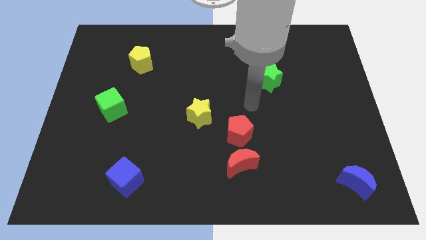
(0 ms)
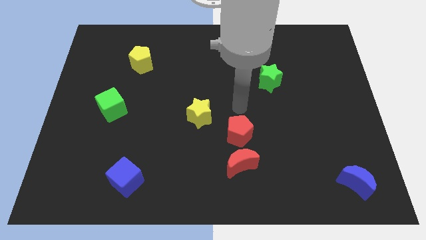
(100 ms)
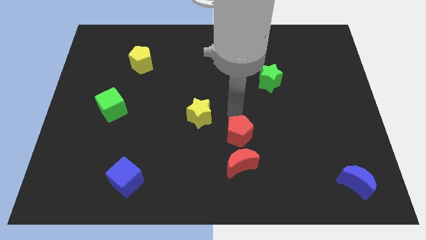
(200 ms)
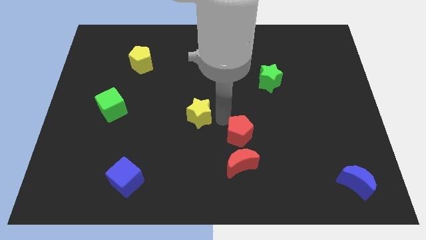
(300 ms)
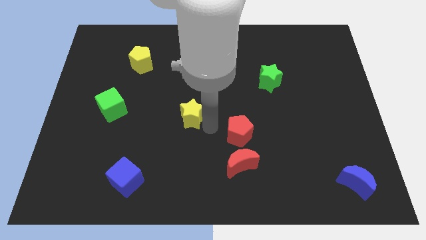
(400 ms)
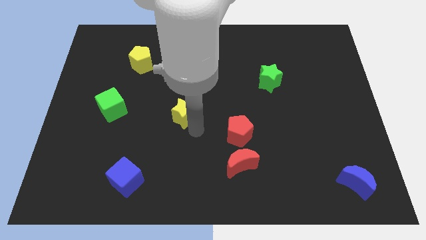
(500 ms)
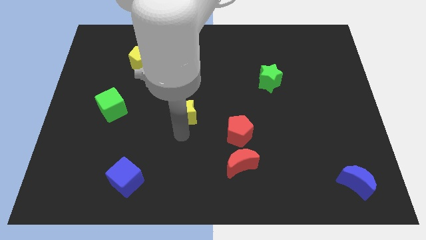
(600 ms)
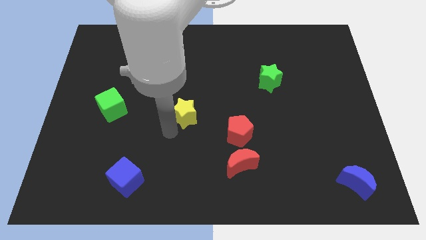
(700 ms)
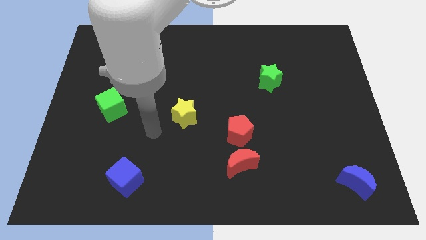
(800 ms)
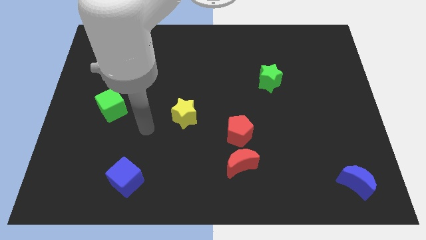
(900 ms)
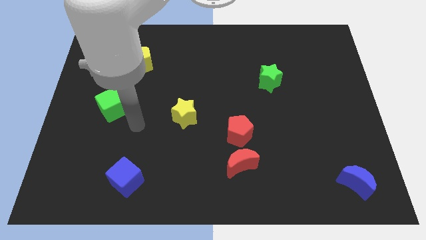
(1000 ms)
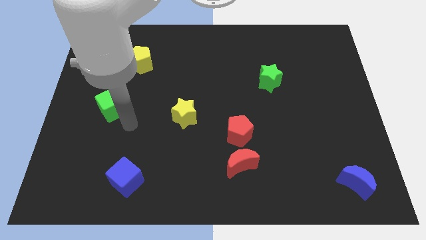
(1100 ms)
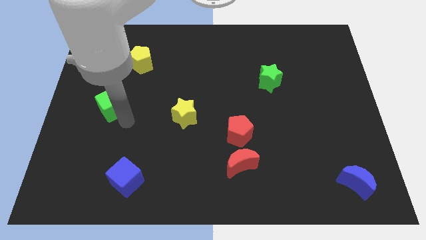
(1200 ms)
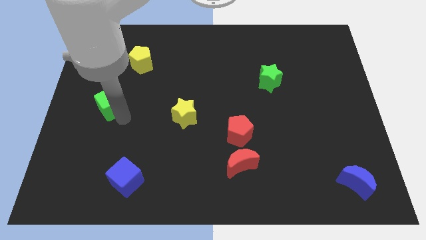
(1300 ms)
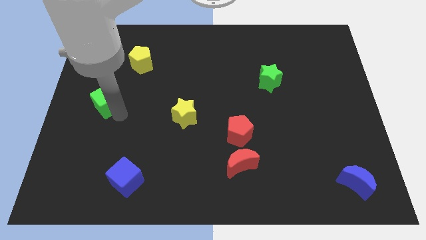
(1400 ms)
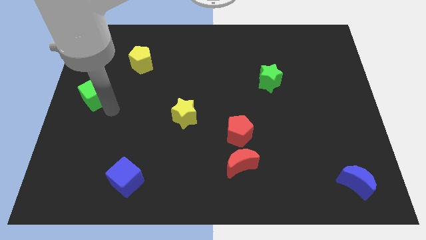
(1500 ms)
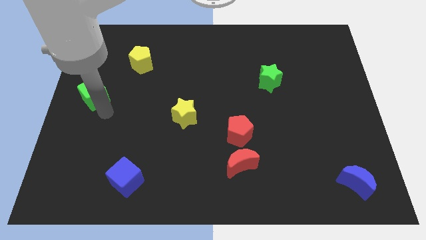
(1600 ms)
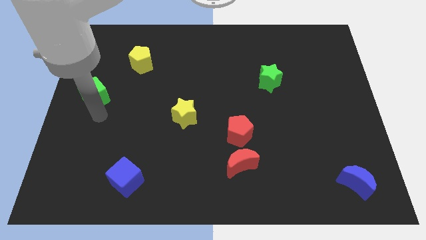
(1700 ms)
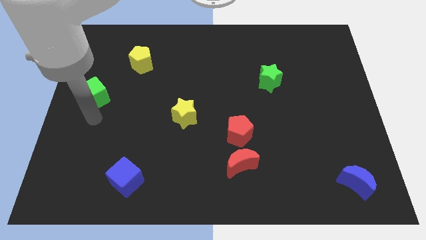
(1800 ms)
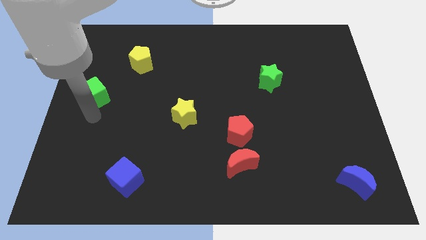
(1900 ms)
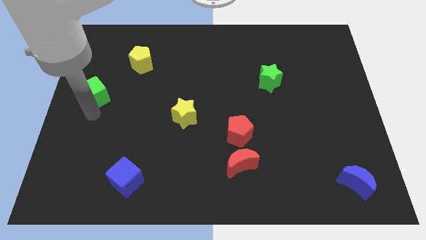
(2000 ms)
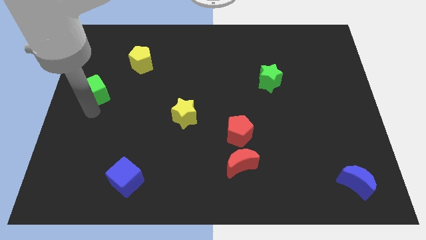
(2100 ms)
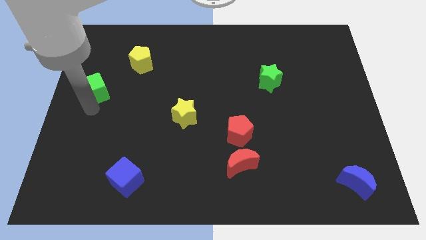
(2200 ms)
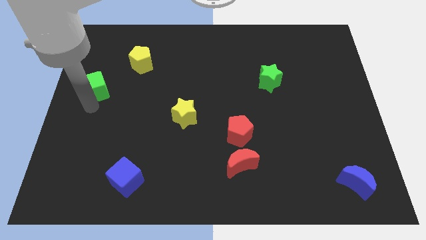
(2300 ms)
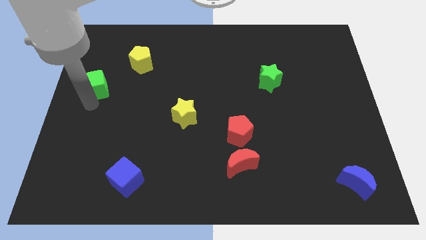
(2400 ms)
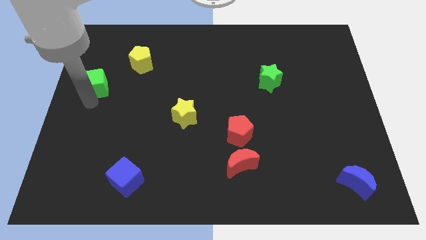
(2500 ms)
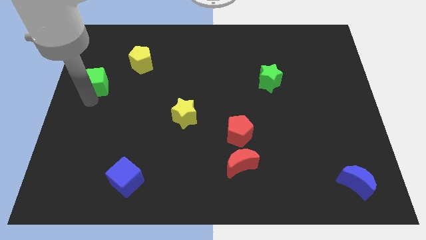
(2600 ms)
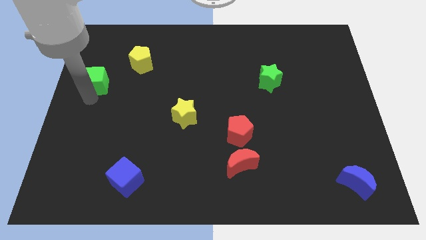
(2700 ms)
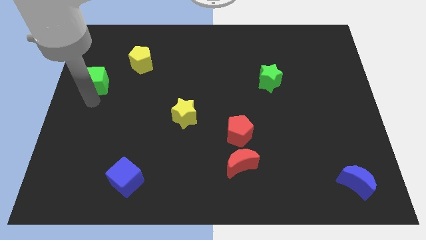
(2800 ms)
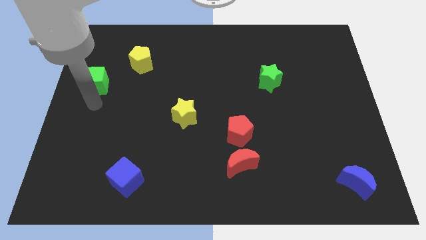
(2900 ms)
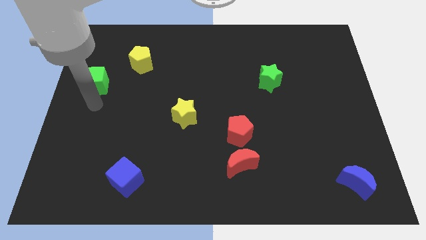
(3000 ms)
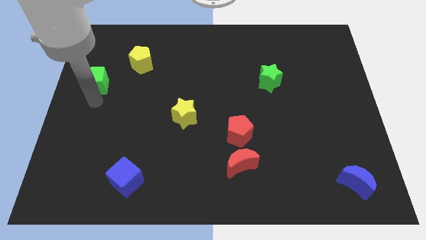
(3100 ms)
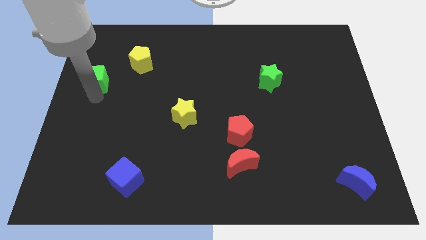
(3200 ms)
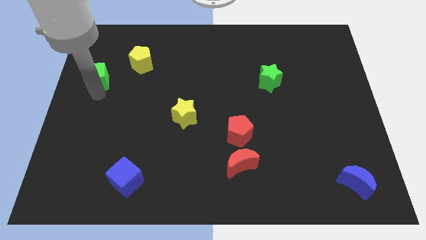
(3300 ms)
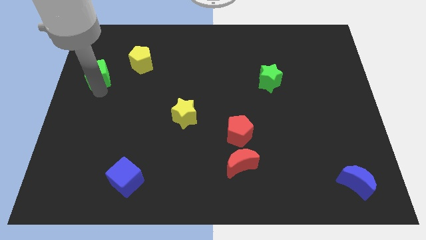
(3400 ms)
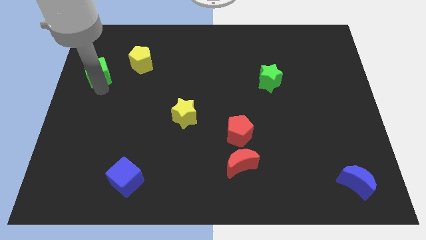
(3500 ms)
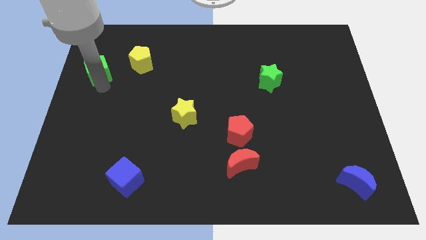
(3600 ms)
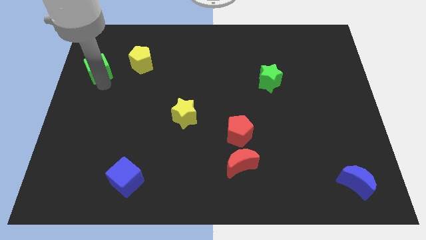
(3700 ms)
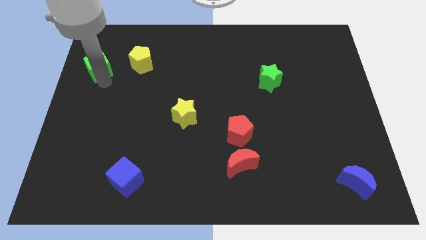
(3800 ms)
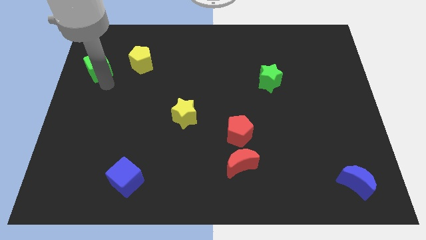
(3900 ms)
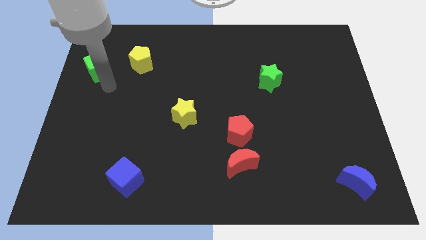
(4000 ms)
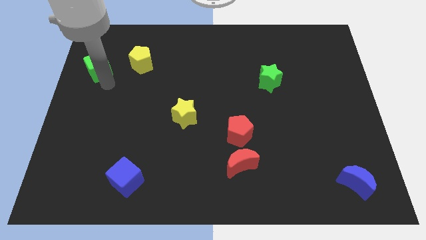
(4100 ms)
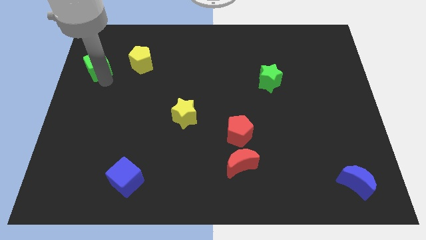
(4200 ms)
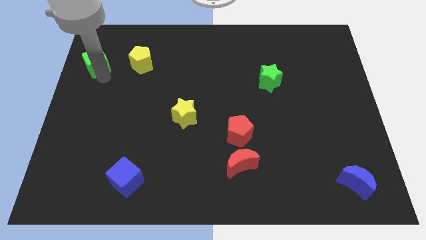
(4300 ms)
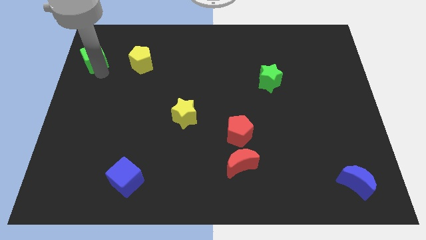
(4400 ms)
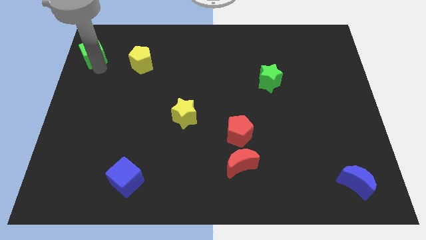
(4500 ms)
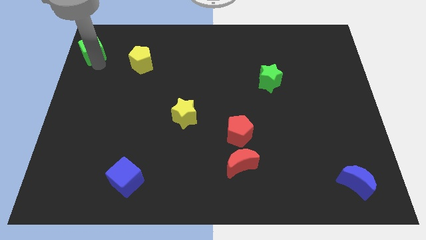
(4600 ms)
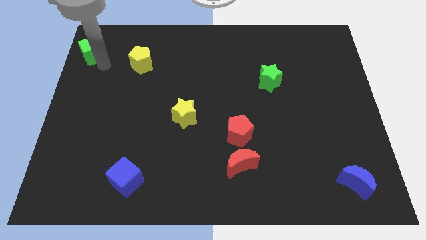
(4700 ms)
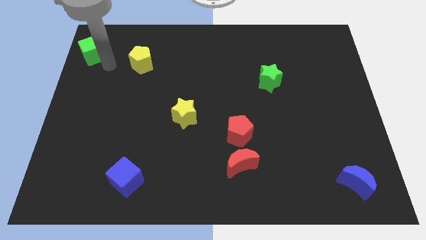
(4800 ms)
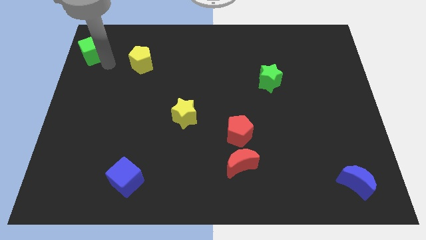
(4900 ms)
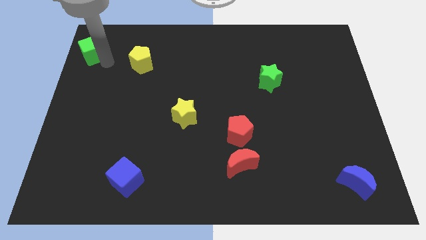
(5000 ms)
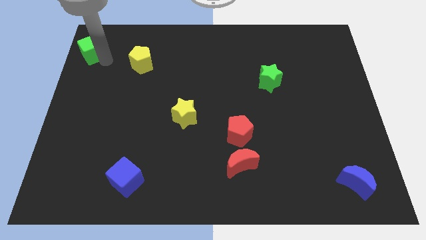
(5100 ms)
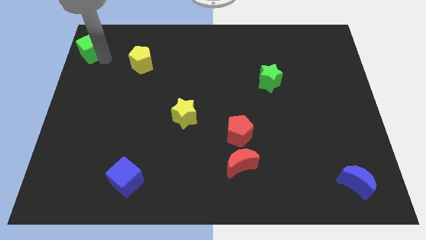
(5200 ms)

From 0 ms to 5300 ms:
put the green cube to the top left
